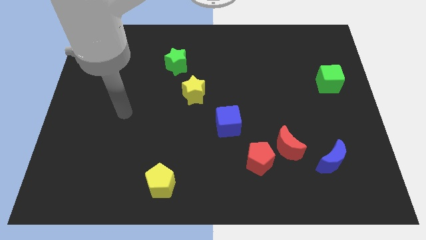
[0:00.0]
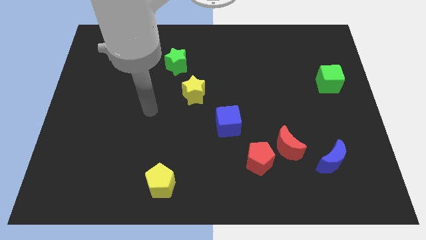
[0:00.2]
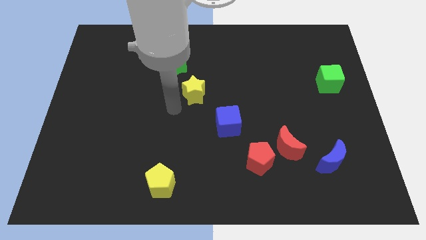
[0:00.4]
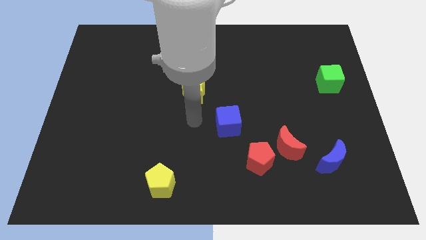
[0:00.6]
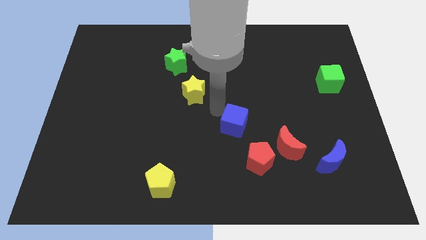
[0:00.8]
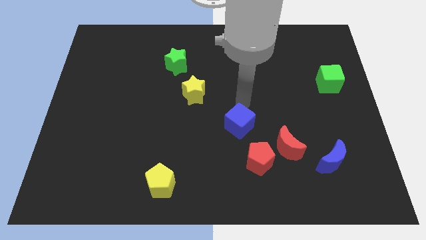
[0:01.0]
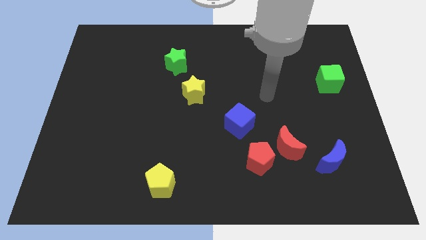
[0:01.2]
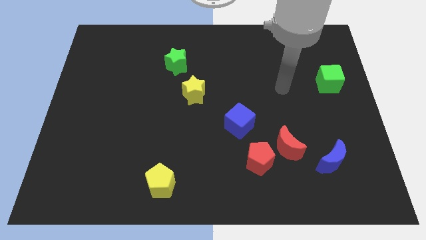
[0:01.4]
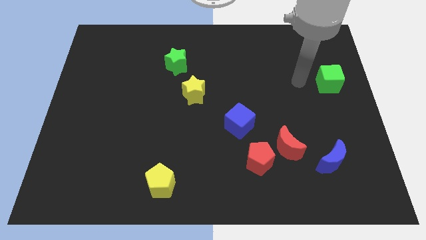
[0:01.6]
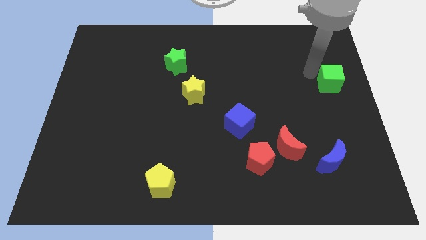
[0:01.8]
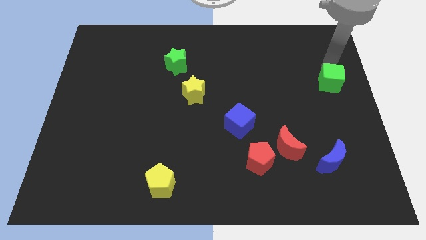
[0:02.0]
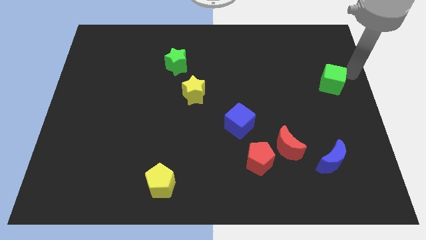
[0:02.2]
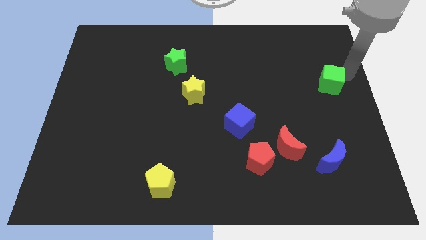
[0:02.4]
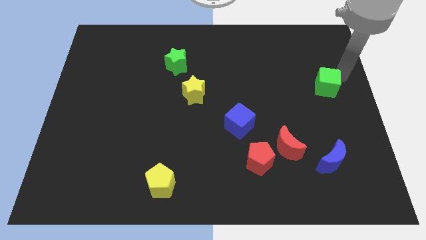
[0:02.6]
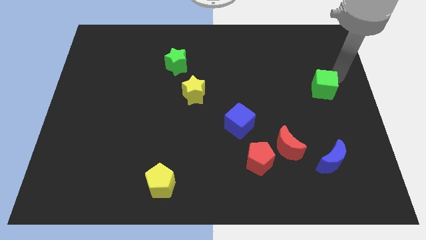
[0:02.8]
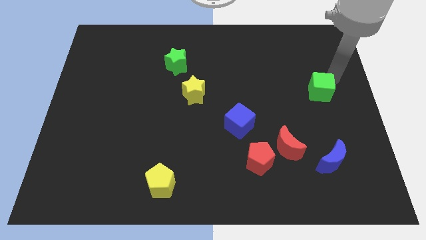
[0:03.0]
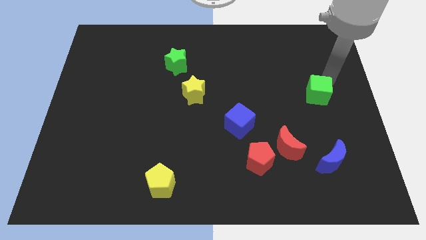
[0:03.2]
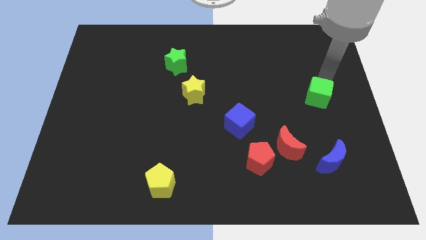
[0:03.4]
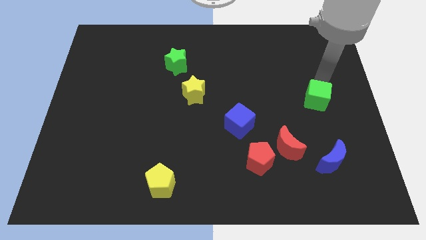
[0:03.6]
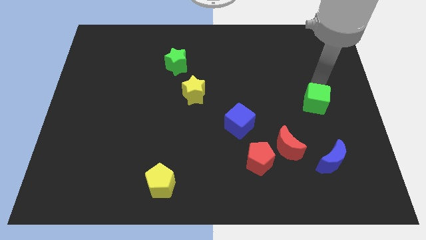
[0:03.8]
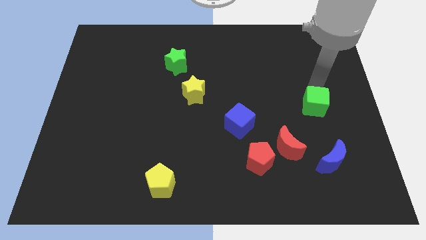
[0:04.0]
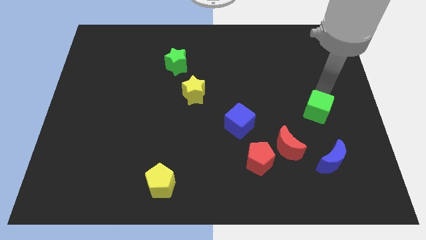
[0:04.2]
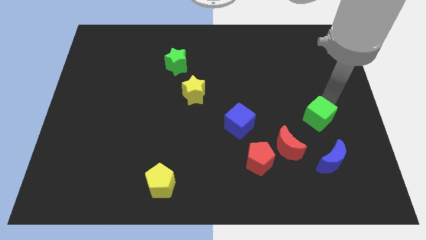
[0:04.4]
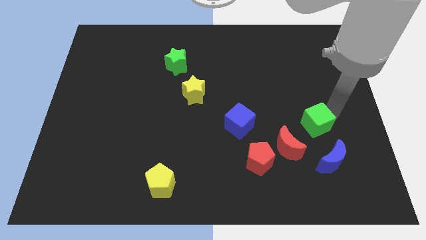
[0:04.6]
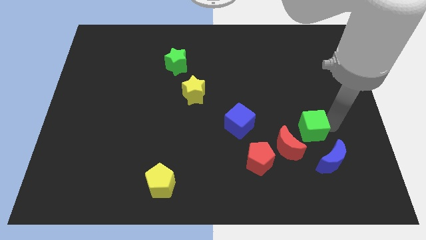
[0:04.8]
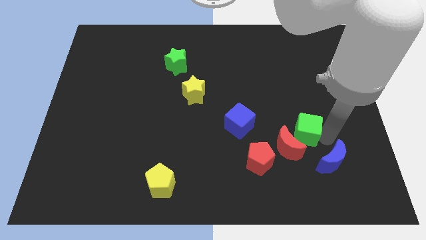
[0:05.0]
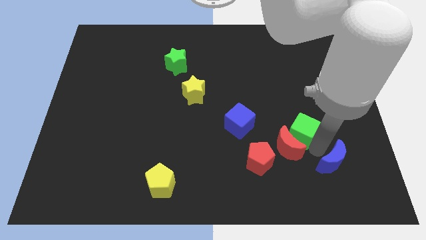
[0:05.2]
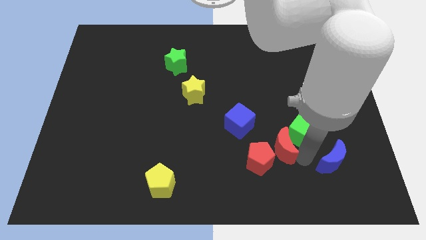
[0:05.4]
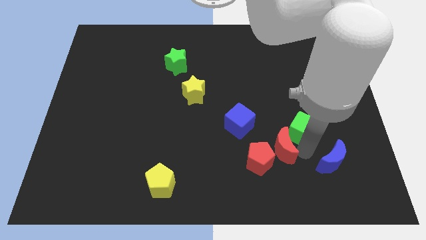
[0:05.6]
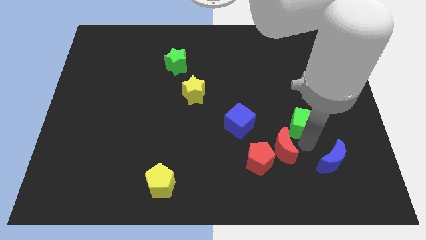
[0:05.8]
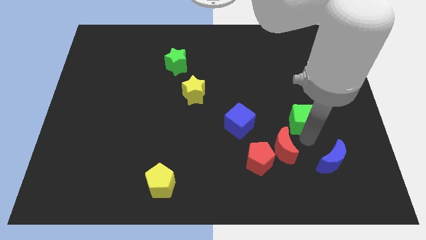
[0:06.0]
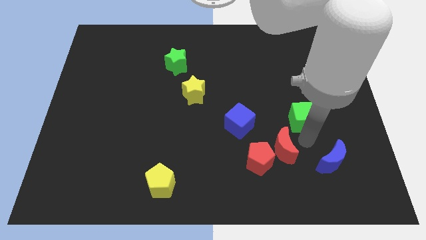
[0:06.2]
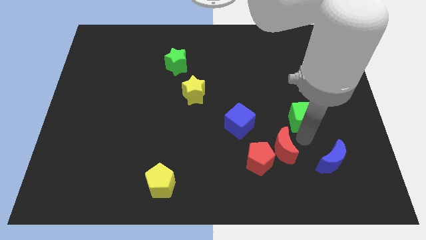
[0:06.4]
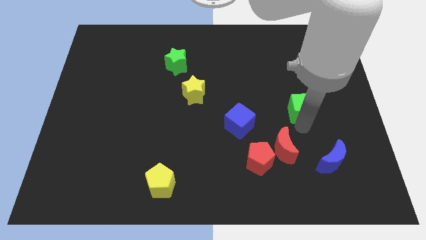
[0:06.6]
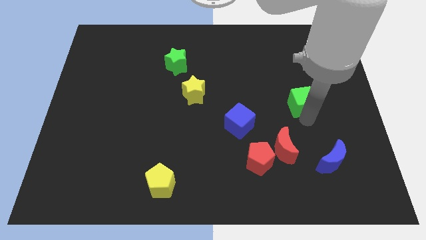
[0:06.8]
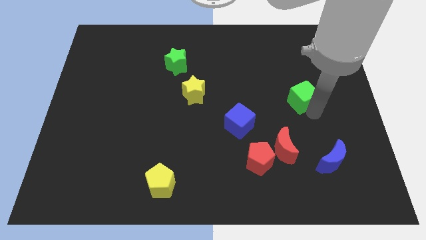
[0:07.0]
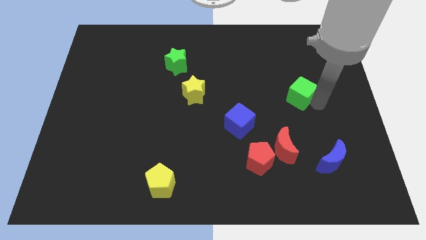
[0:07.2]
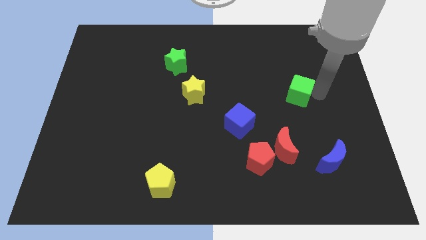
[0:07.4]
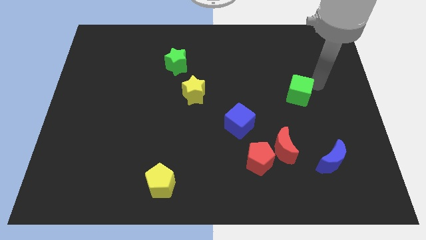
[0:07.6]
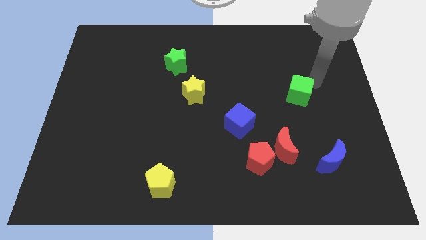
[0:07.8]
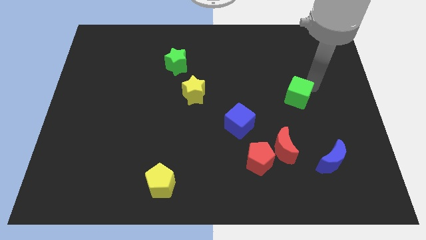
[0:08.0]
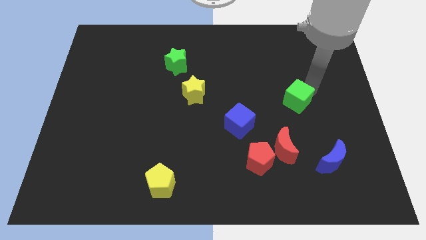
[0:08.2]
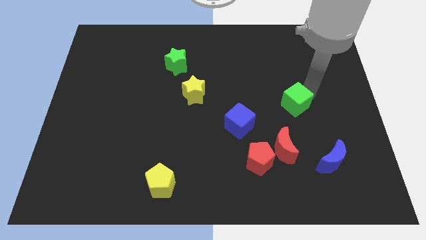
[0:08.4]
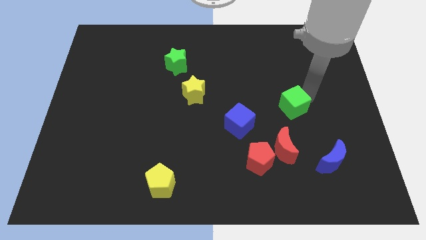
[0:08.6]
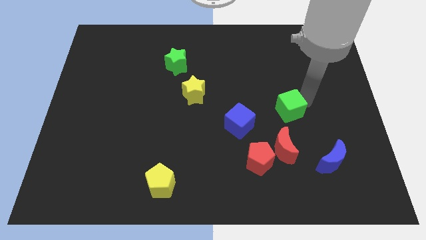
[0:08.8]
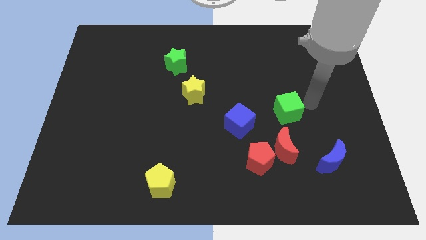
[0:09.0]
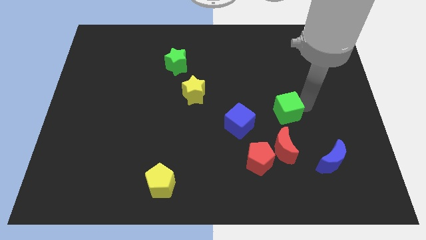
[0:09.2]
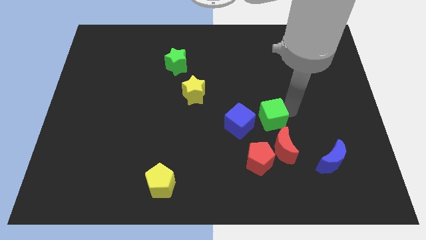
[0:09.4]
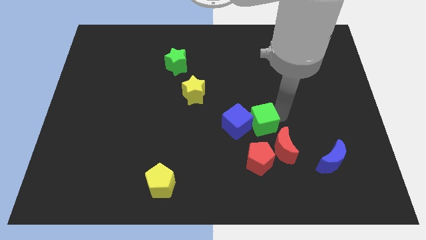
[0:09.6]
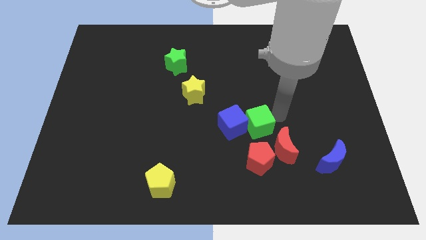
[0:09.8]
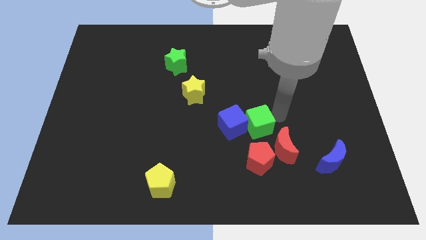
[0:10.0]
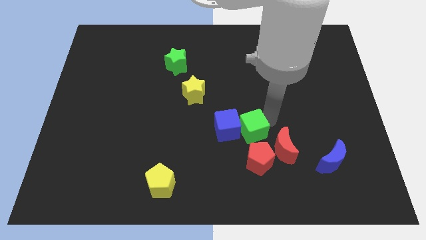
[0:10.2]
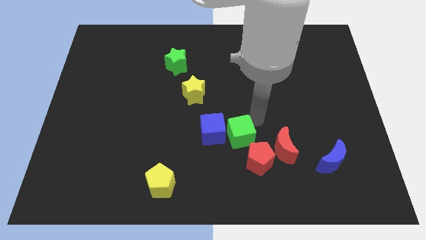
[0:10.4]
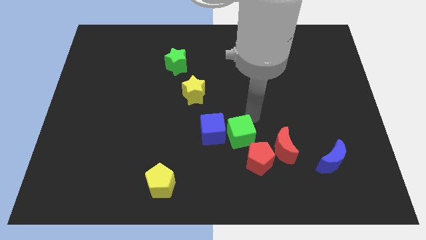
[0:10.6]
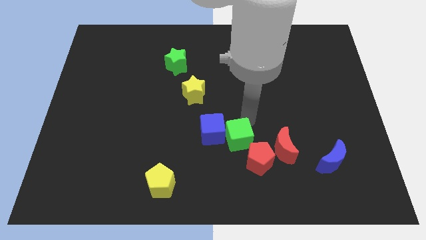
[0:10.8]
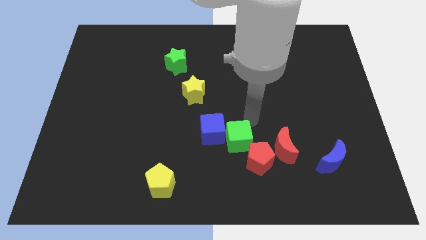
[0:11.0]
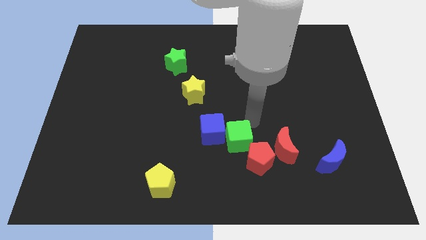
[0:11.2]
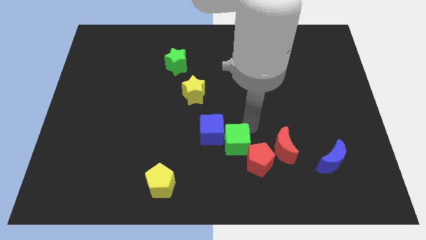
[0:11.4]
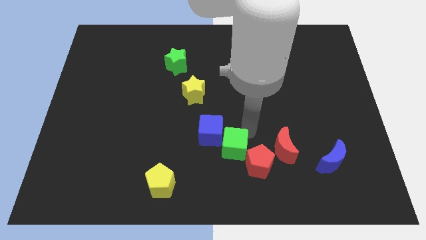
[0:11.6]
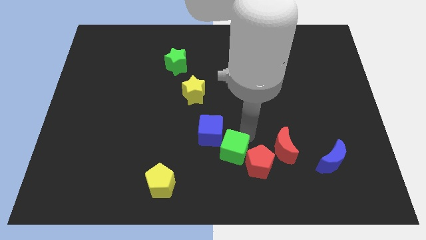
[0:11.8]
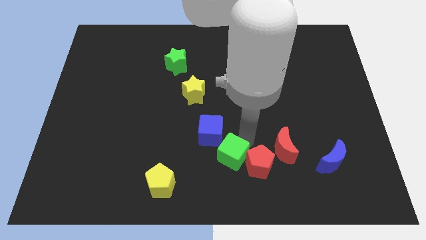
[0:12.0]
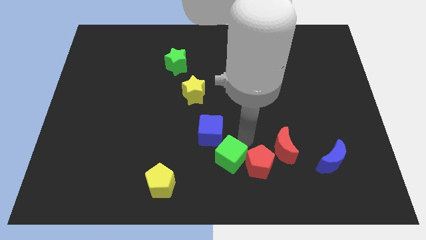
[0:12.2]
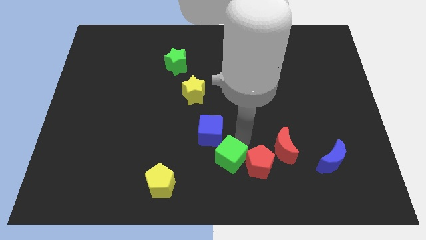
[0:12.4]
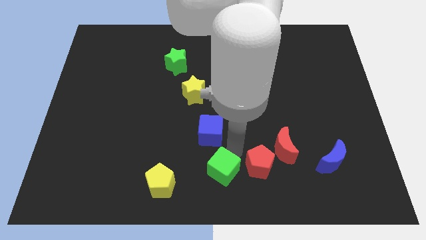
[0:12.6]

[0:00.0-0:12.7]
push the green cube right of the yellow pentagon

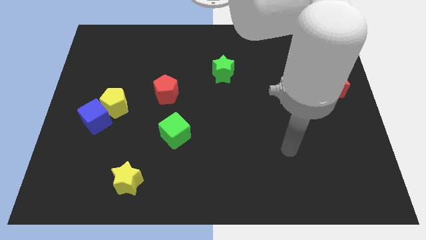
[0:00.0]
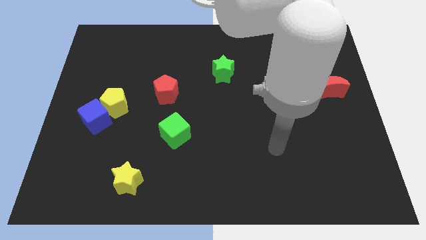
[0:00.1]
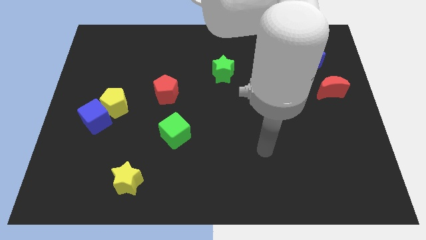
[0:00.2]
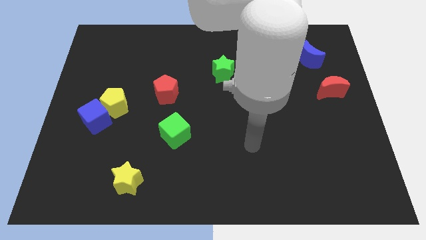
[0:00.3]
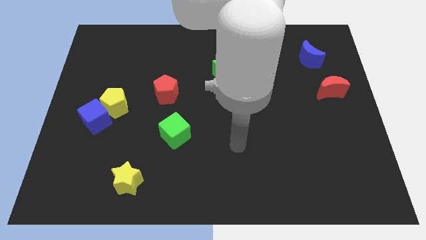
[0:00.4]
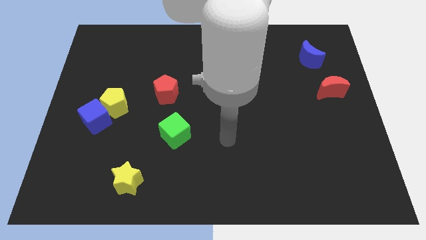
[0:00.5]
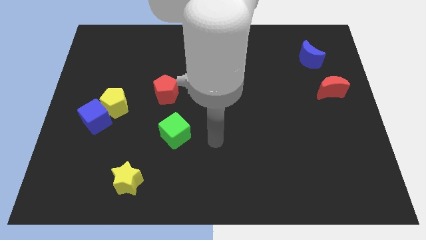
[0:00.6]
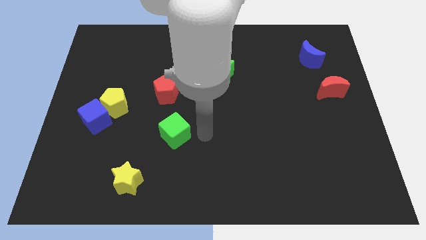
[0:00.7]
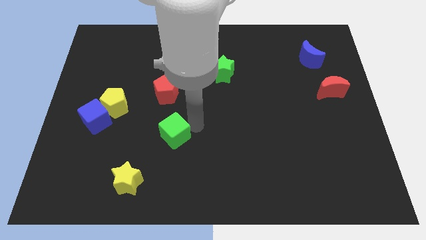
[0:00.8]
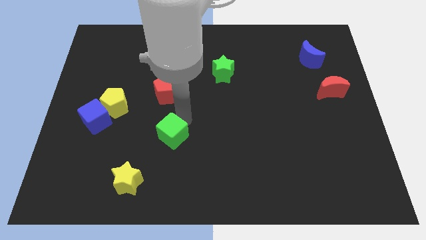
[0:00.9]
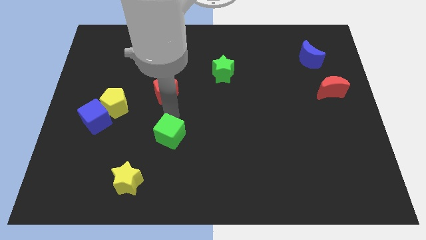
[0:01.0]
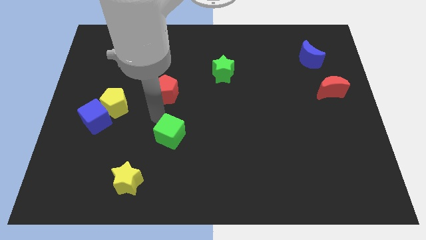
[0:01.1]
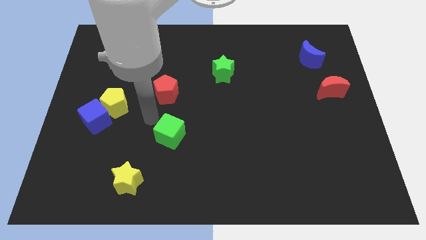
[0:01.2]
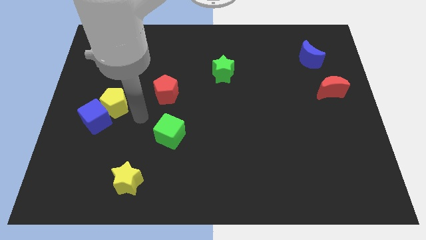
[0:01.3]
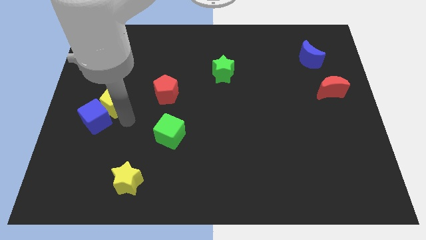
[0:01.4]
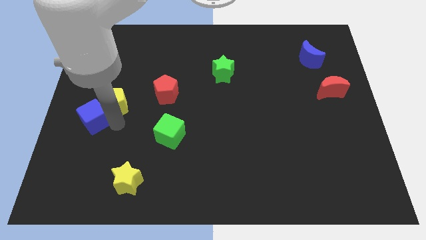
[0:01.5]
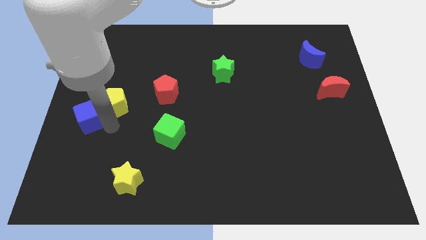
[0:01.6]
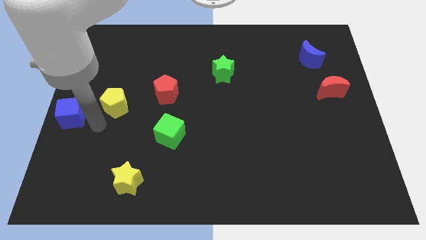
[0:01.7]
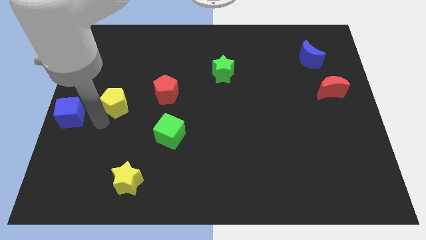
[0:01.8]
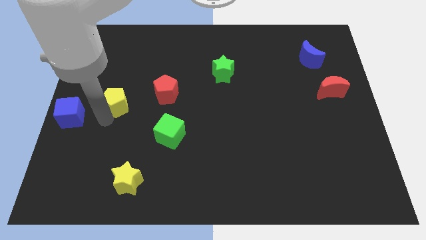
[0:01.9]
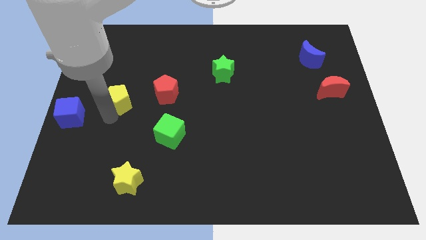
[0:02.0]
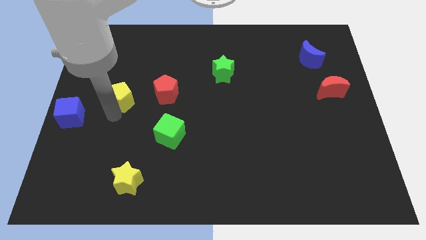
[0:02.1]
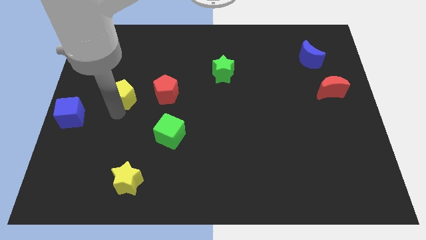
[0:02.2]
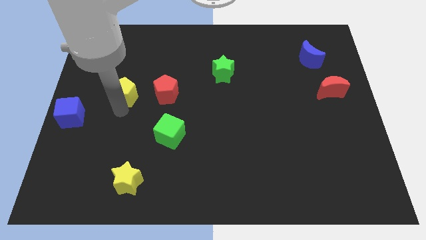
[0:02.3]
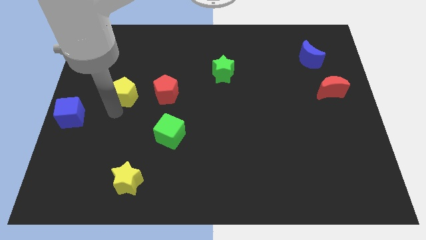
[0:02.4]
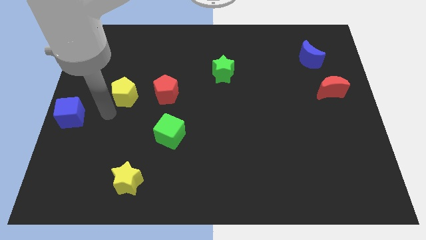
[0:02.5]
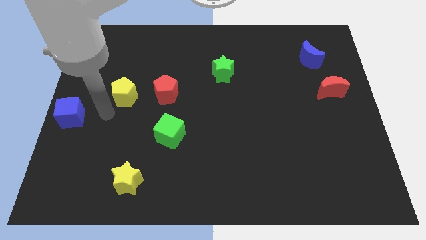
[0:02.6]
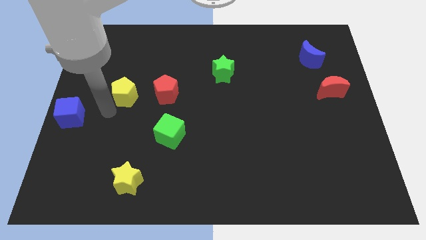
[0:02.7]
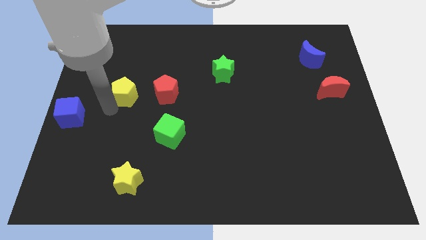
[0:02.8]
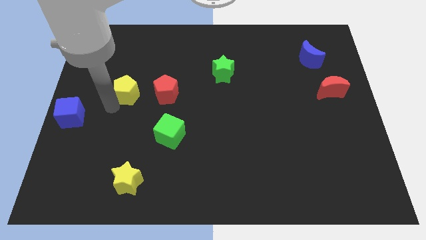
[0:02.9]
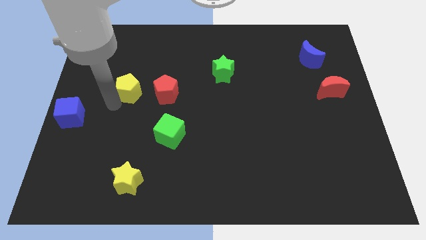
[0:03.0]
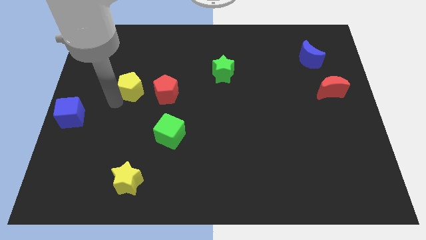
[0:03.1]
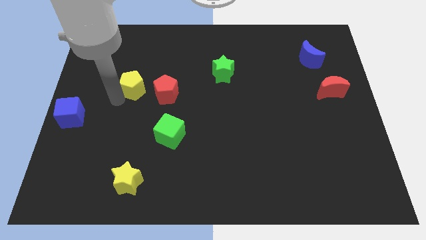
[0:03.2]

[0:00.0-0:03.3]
move the yellow pentagon diagonally up and to the left of the red pentagon
